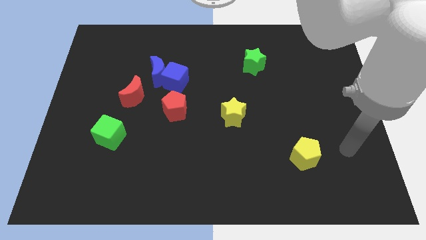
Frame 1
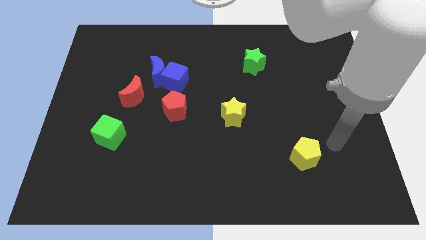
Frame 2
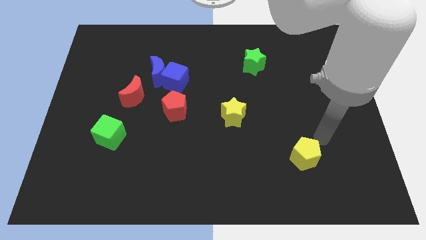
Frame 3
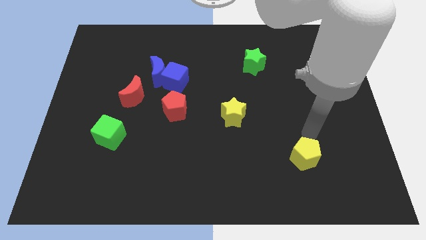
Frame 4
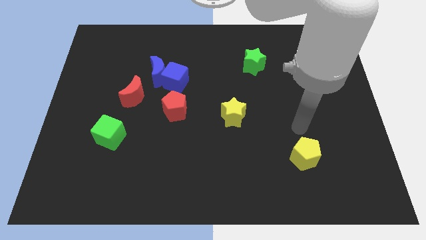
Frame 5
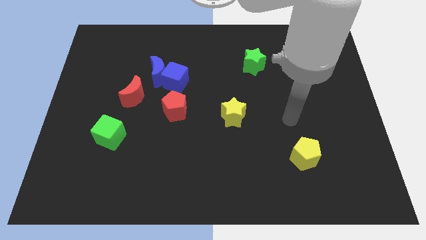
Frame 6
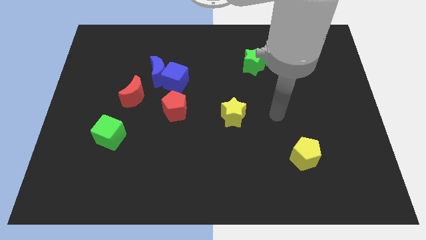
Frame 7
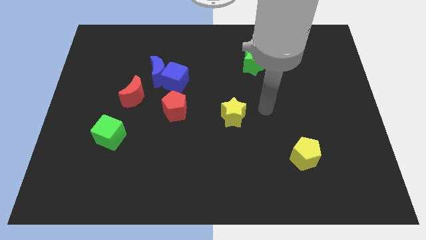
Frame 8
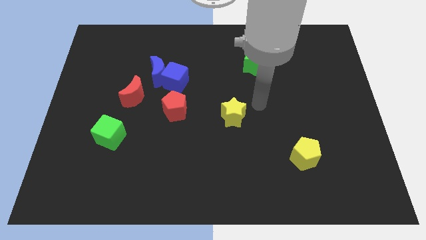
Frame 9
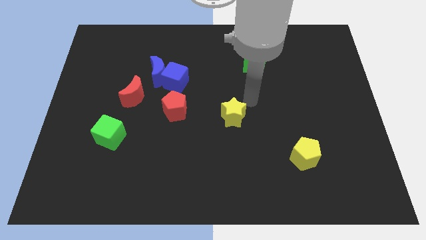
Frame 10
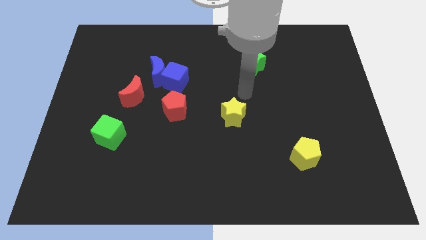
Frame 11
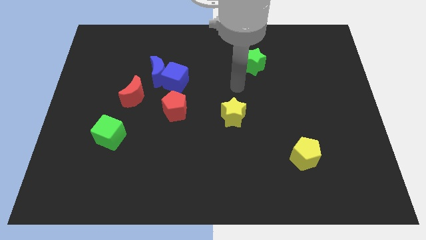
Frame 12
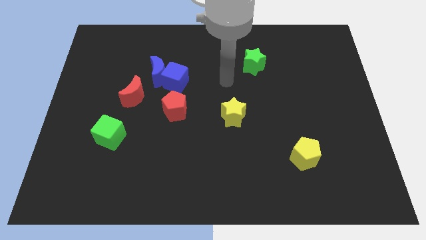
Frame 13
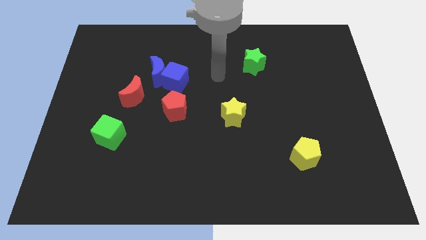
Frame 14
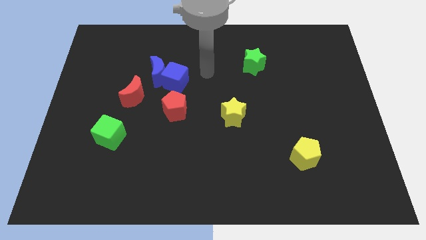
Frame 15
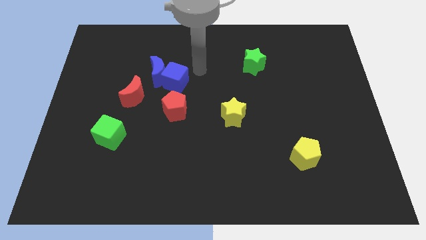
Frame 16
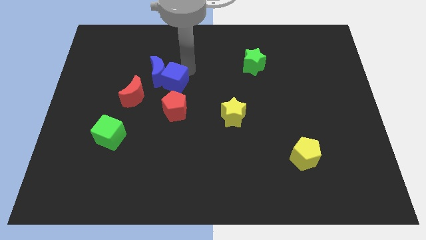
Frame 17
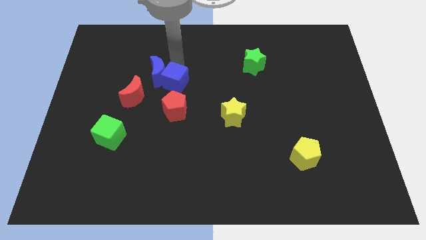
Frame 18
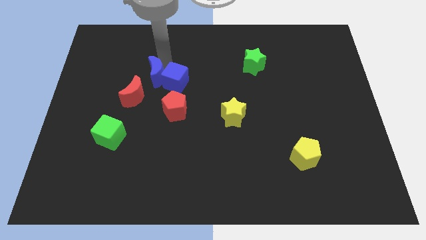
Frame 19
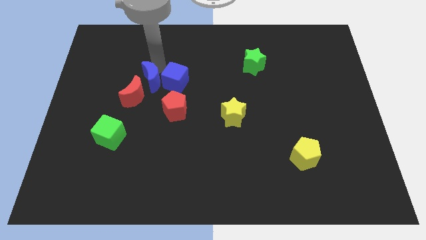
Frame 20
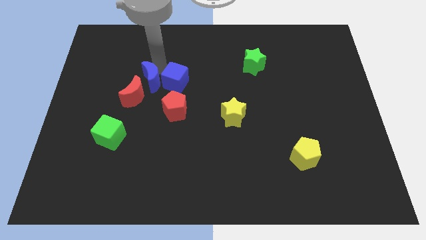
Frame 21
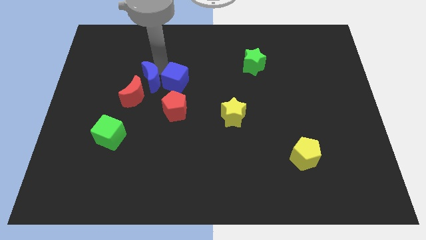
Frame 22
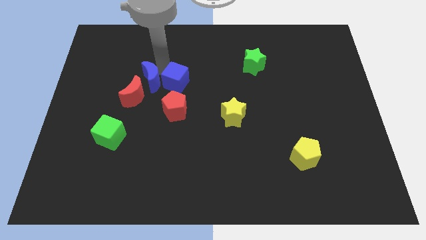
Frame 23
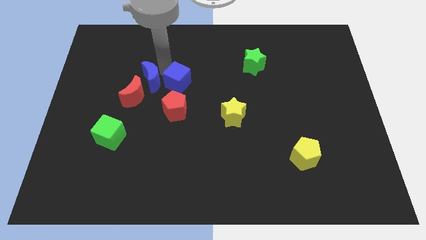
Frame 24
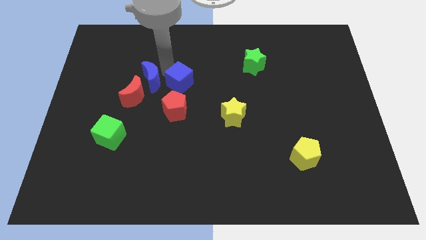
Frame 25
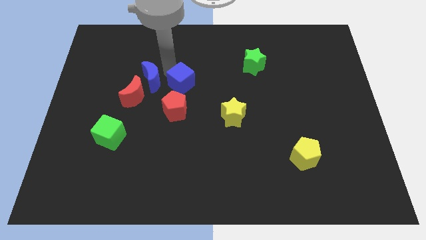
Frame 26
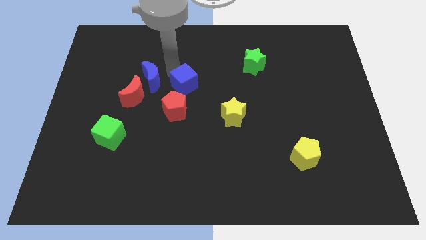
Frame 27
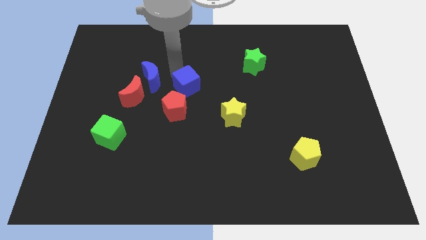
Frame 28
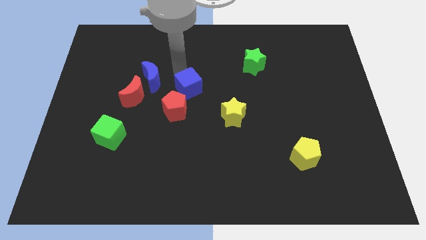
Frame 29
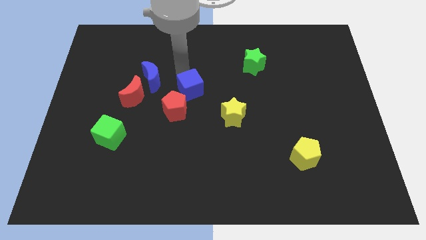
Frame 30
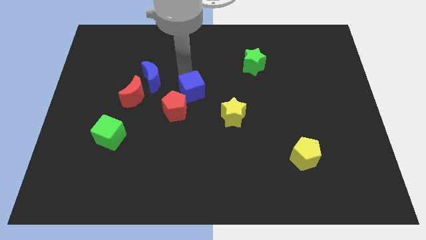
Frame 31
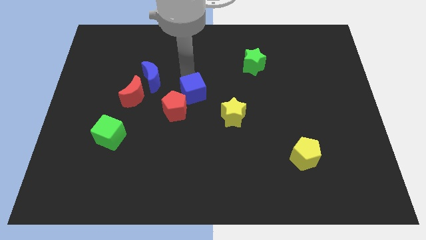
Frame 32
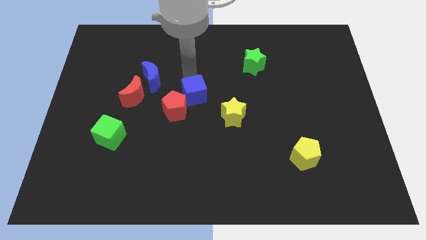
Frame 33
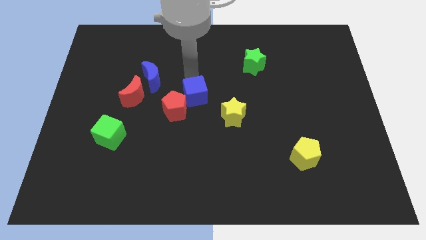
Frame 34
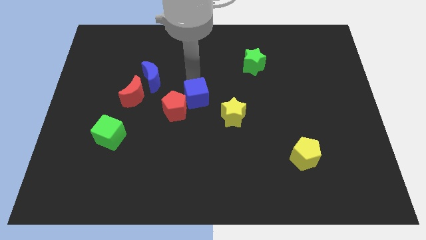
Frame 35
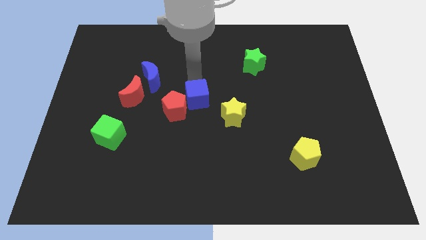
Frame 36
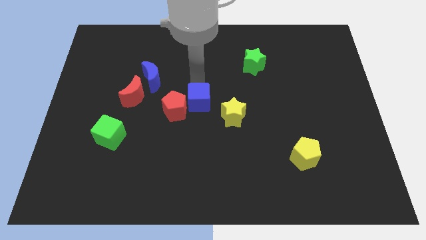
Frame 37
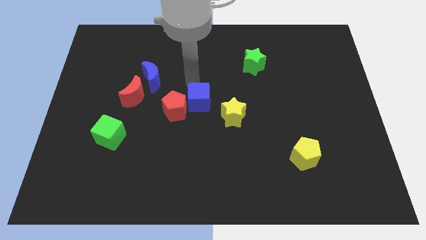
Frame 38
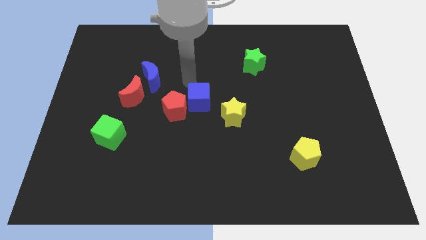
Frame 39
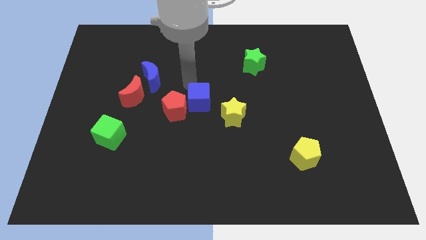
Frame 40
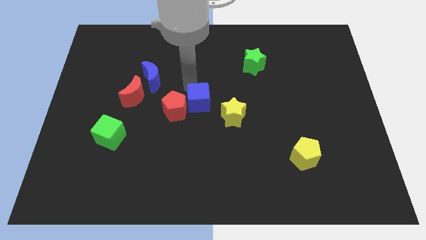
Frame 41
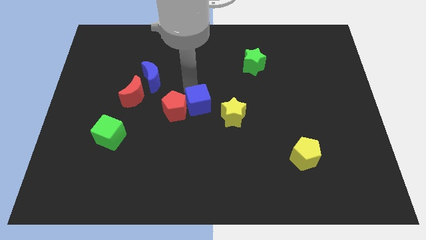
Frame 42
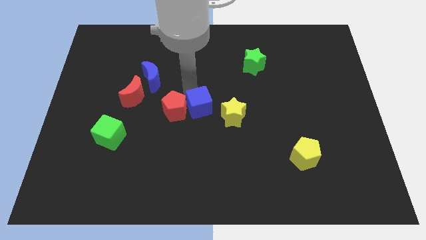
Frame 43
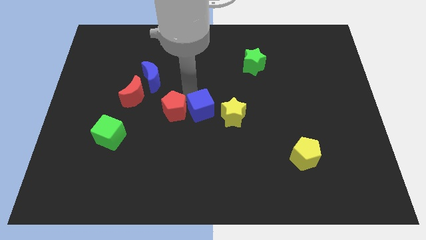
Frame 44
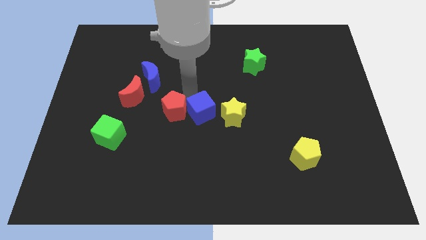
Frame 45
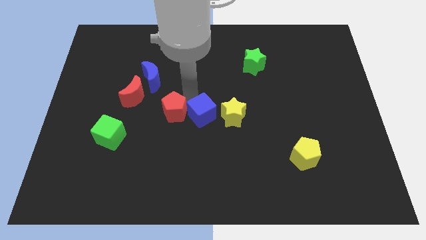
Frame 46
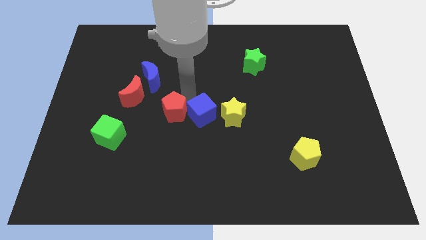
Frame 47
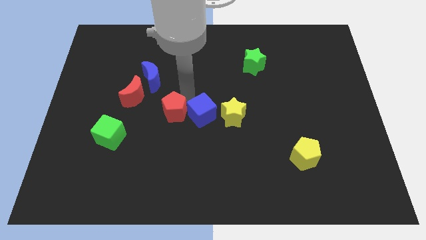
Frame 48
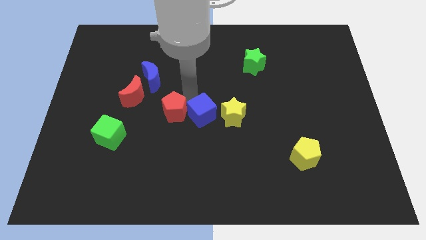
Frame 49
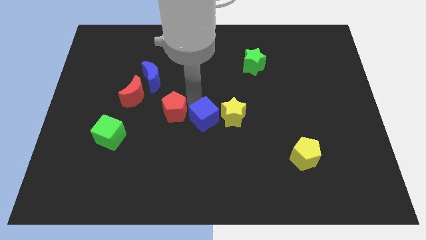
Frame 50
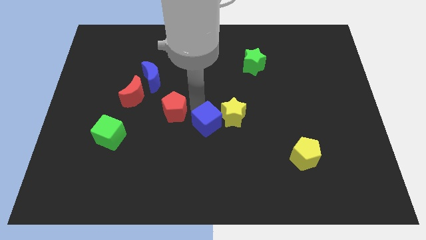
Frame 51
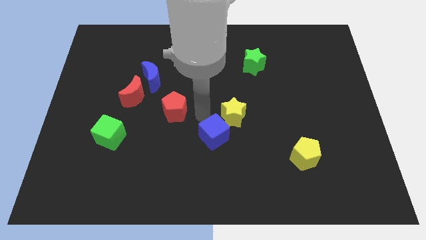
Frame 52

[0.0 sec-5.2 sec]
push the blue cube to the bottom of the yellow star

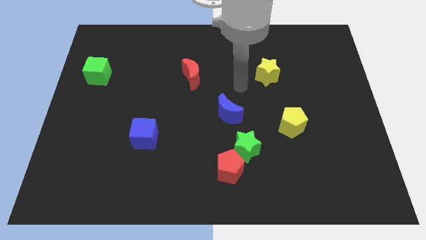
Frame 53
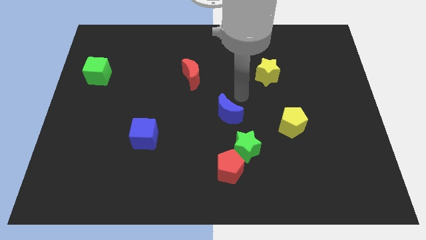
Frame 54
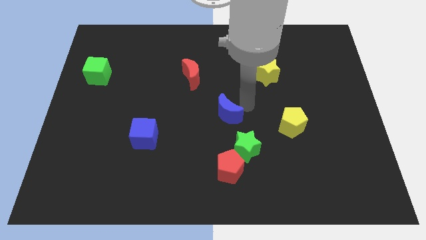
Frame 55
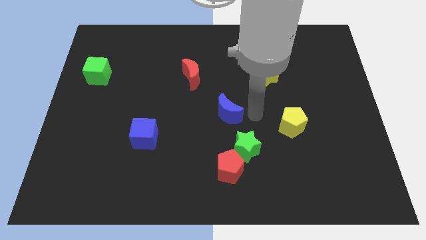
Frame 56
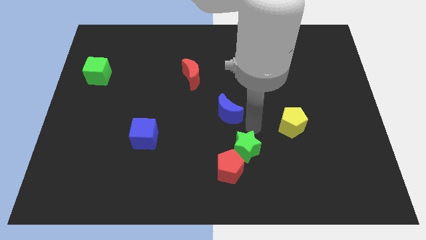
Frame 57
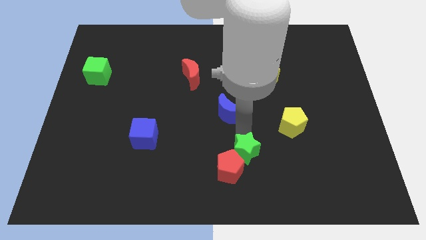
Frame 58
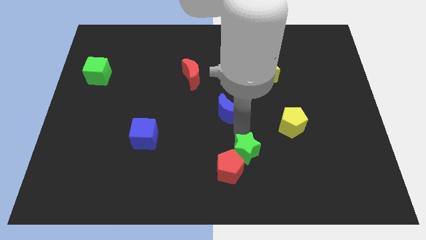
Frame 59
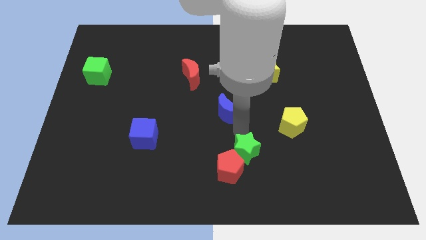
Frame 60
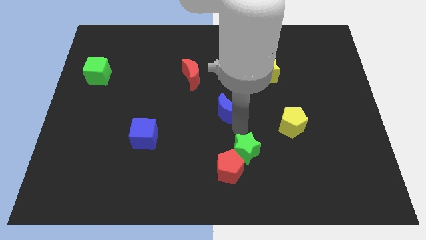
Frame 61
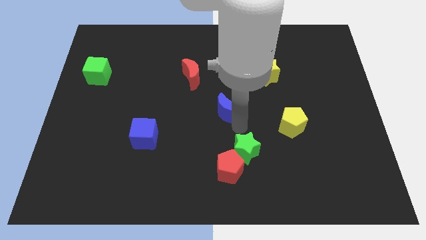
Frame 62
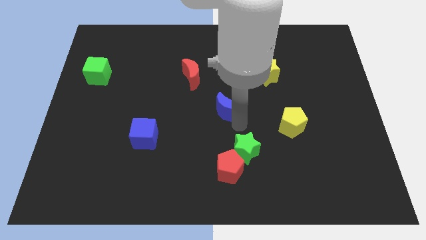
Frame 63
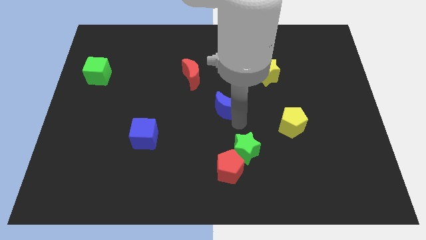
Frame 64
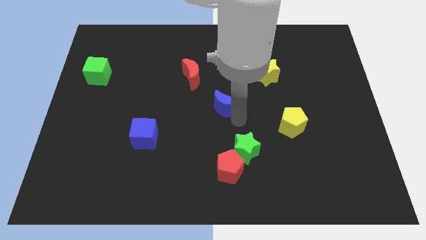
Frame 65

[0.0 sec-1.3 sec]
move the blue moon diagonally down and to the right of the red moon
